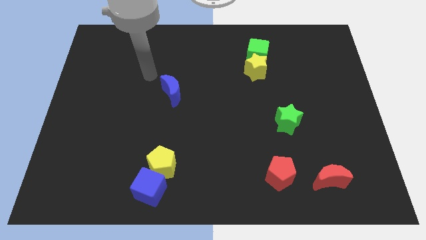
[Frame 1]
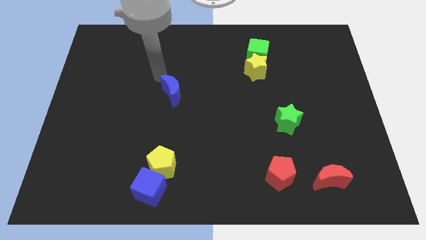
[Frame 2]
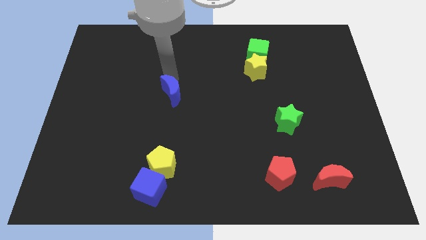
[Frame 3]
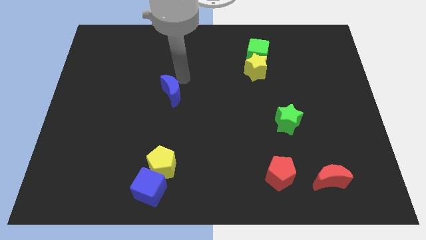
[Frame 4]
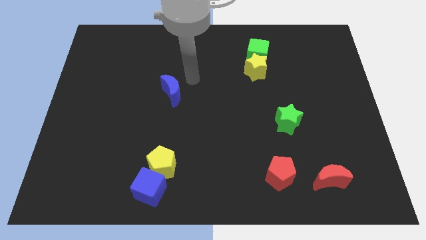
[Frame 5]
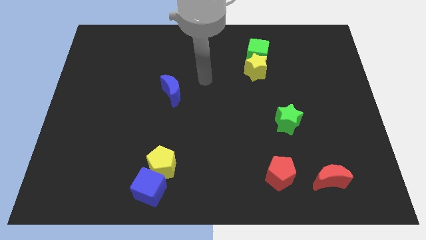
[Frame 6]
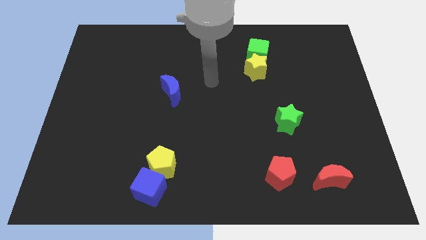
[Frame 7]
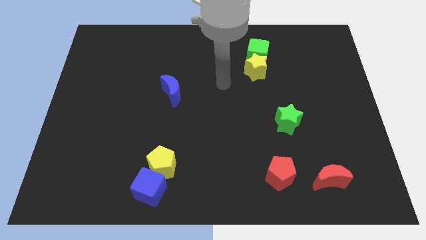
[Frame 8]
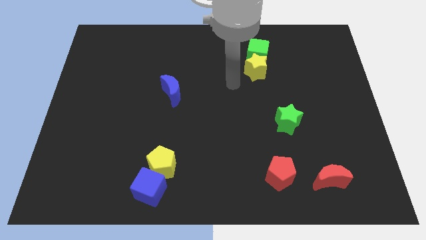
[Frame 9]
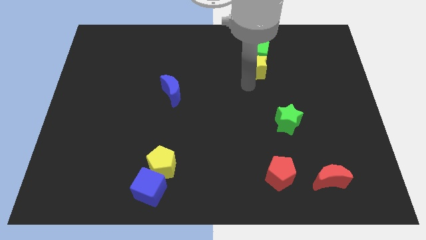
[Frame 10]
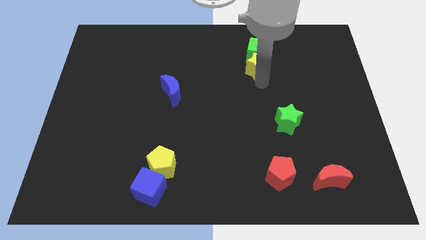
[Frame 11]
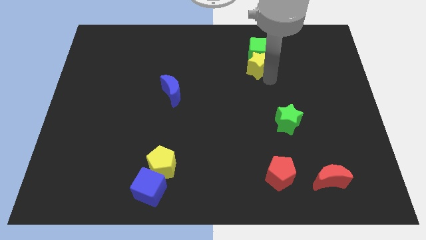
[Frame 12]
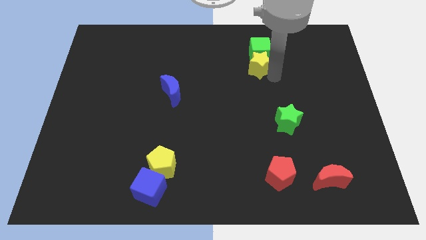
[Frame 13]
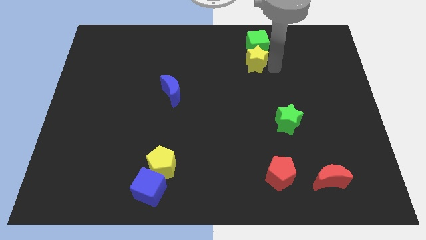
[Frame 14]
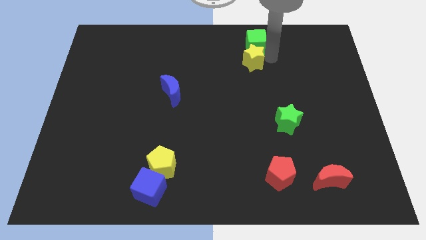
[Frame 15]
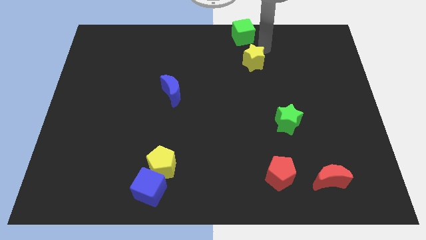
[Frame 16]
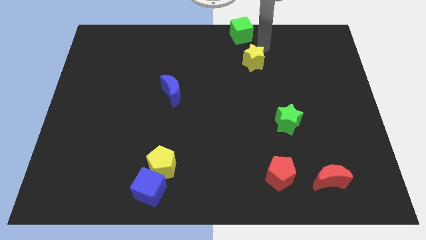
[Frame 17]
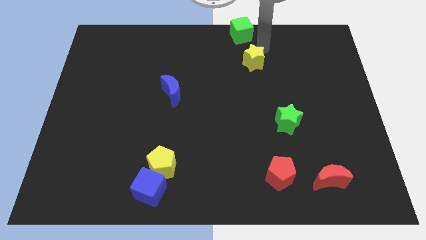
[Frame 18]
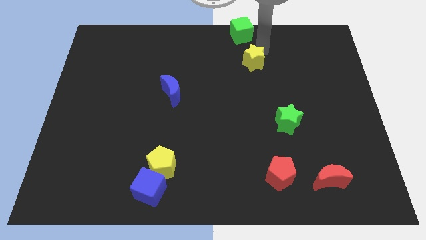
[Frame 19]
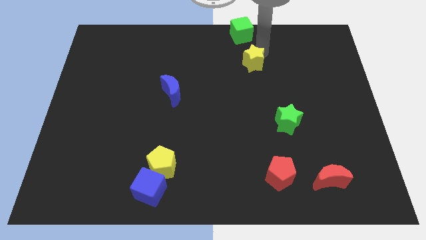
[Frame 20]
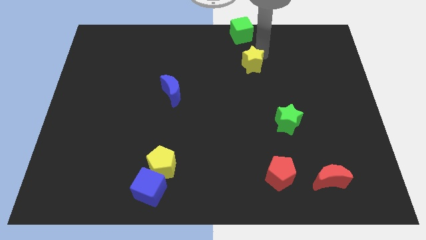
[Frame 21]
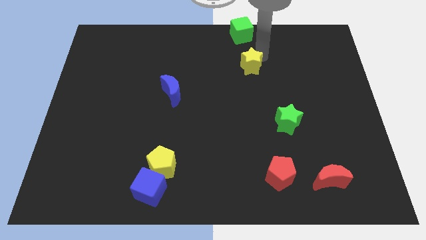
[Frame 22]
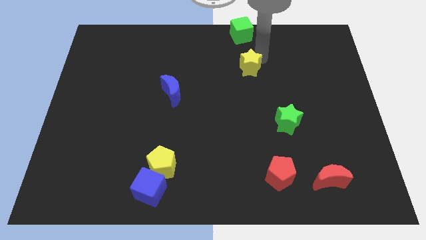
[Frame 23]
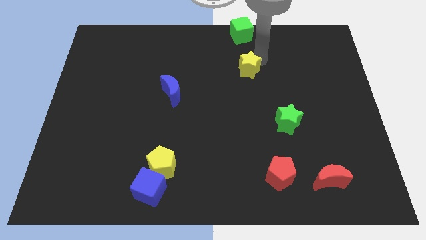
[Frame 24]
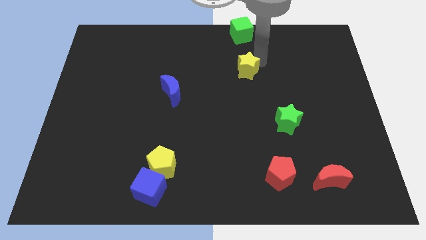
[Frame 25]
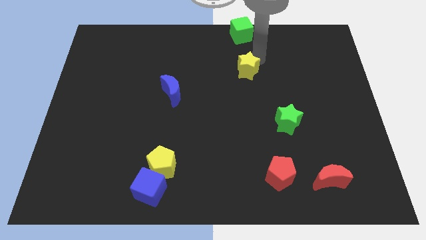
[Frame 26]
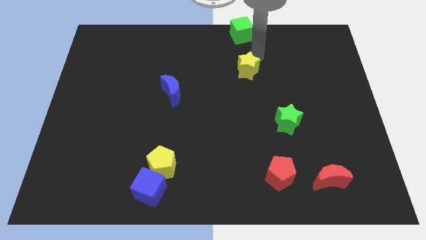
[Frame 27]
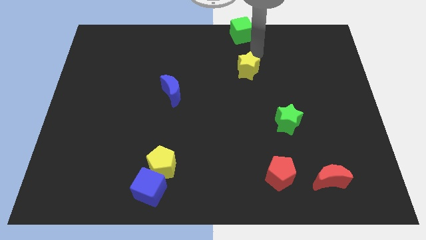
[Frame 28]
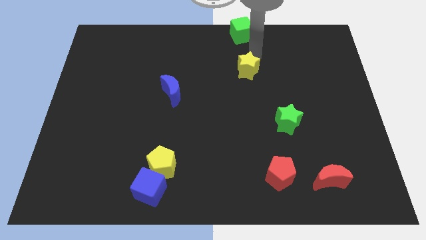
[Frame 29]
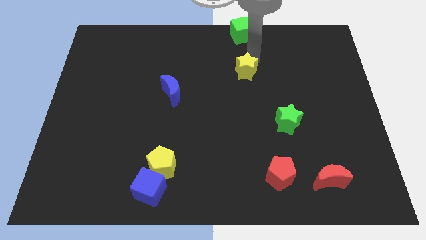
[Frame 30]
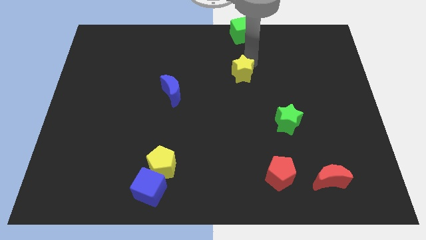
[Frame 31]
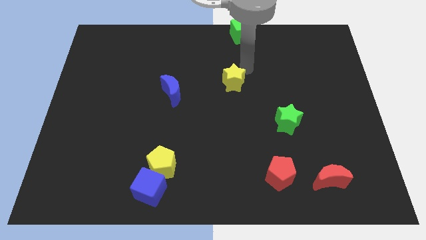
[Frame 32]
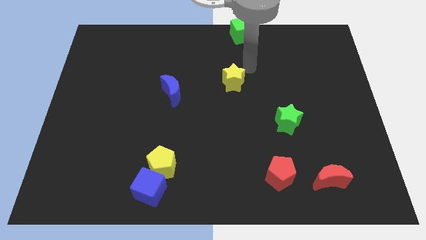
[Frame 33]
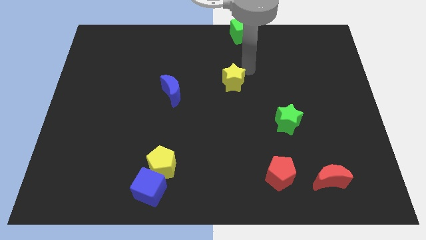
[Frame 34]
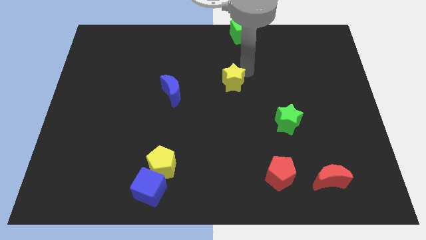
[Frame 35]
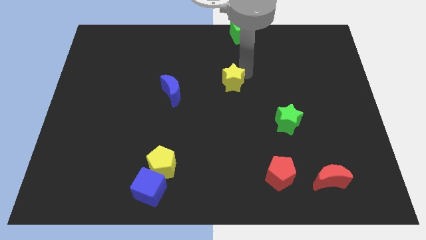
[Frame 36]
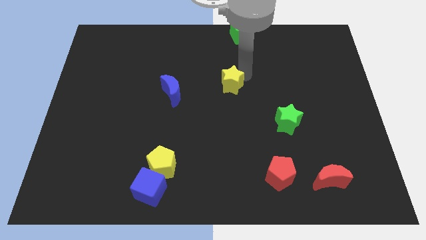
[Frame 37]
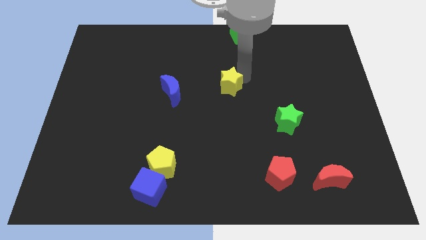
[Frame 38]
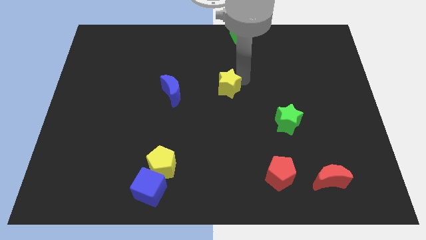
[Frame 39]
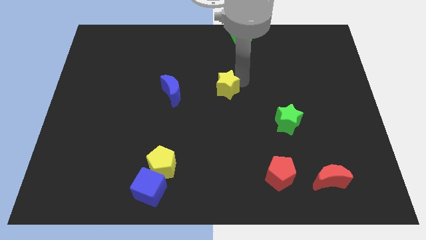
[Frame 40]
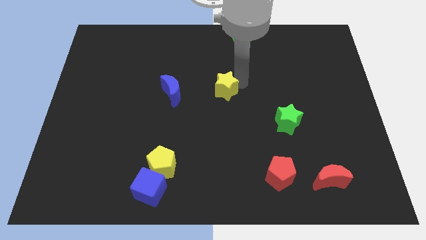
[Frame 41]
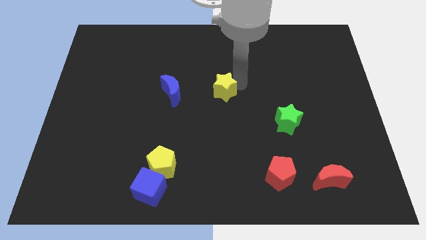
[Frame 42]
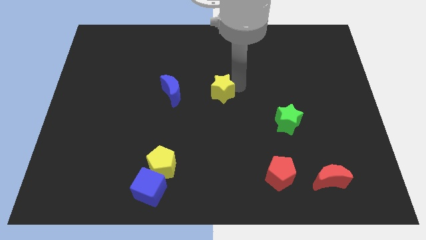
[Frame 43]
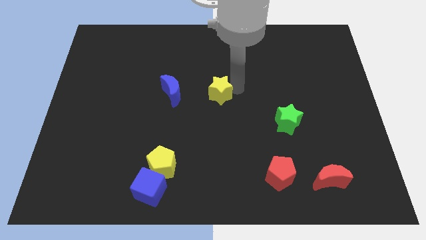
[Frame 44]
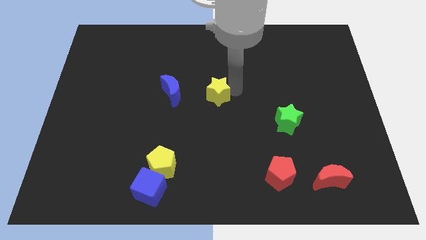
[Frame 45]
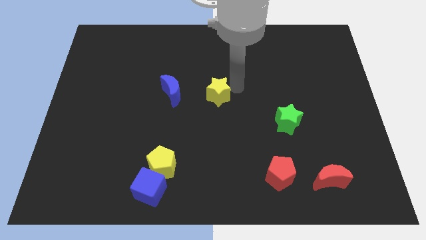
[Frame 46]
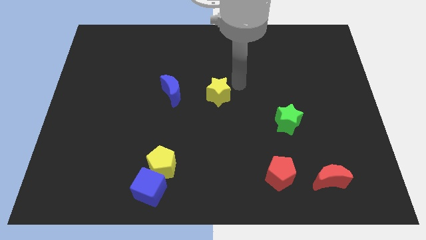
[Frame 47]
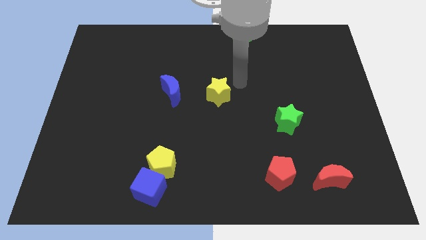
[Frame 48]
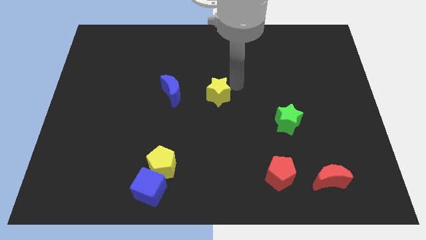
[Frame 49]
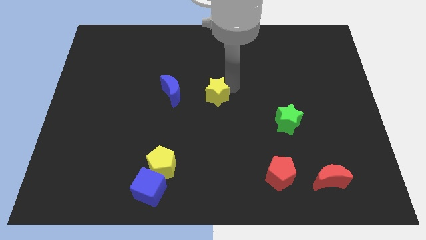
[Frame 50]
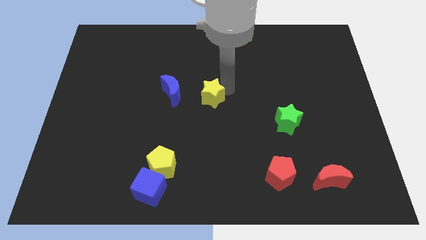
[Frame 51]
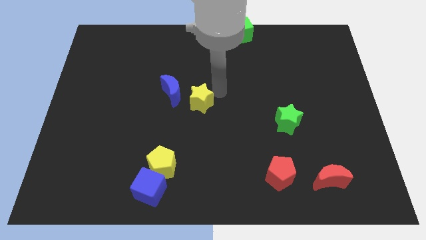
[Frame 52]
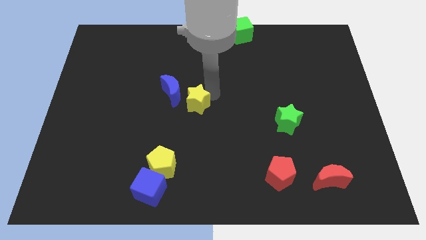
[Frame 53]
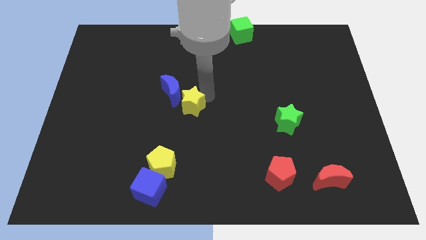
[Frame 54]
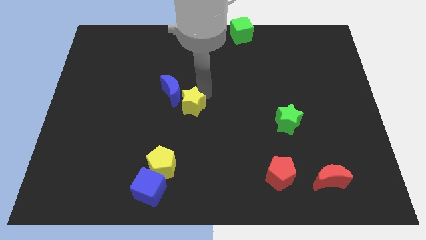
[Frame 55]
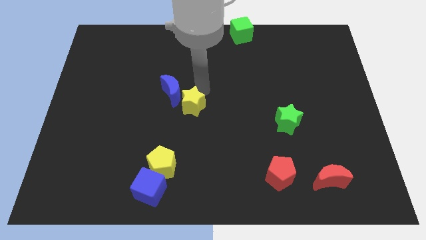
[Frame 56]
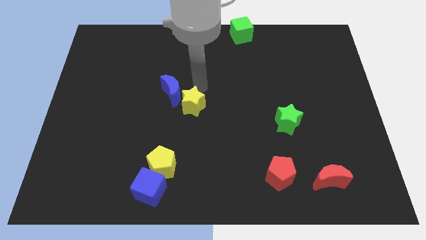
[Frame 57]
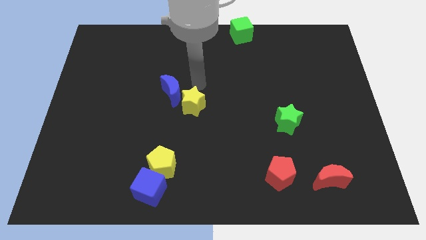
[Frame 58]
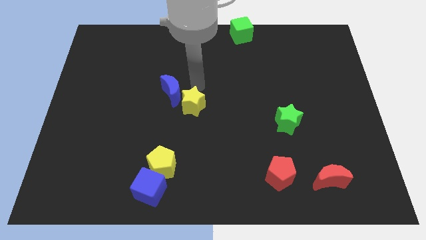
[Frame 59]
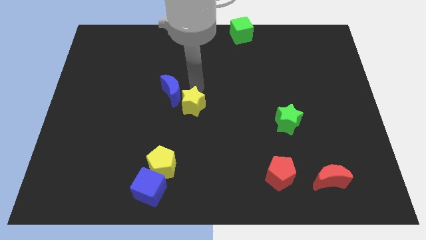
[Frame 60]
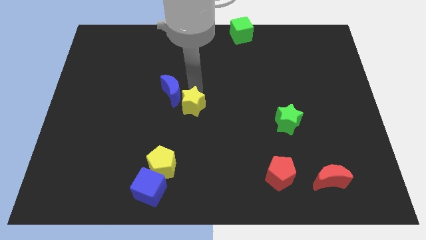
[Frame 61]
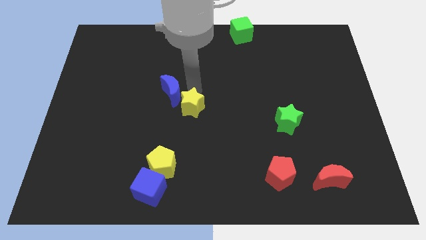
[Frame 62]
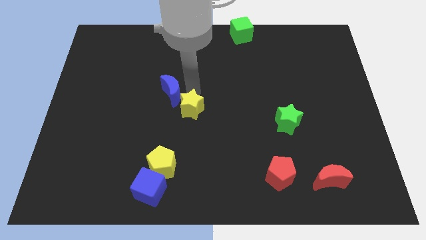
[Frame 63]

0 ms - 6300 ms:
move the yellow star downwards and then left

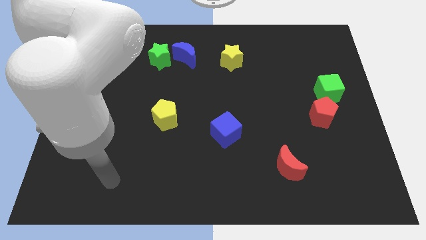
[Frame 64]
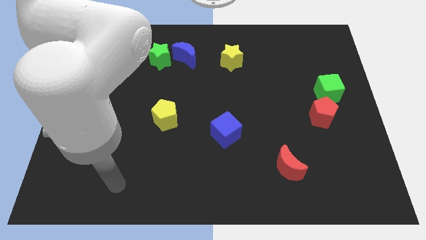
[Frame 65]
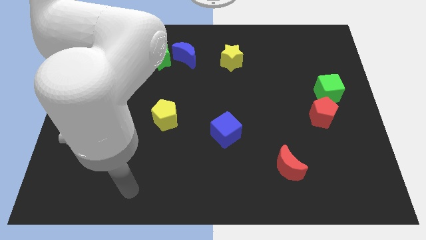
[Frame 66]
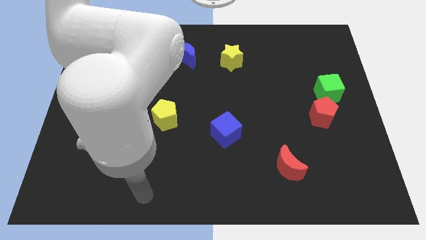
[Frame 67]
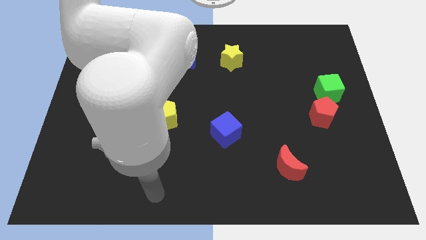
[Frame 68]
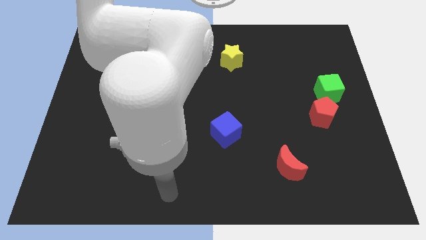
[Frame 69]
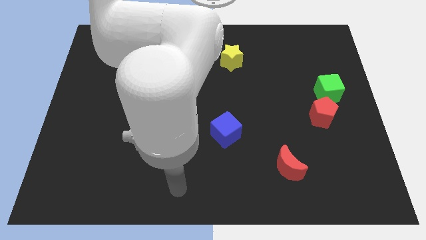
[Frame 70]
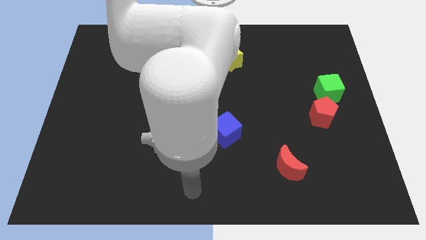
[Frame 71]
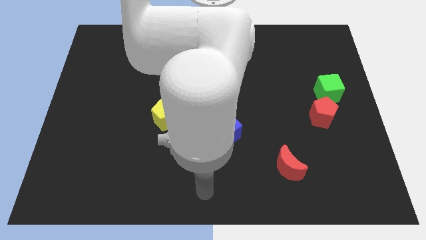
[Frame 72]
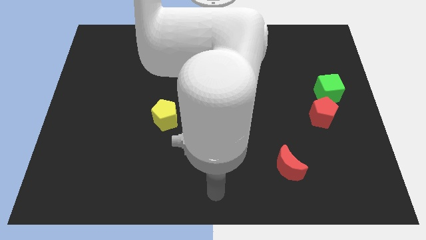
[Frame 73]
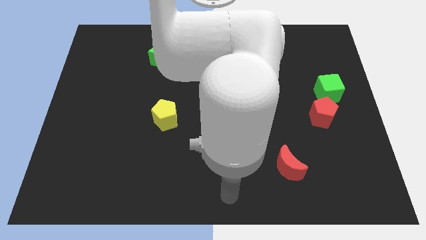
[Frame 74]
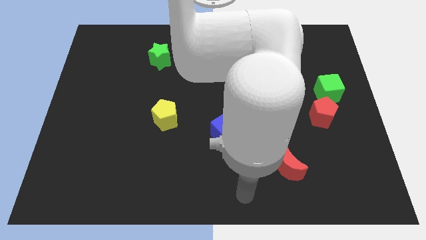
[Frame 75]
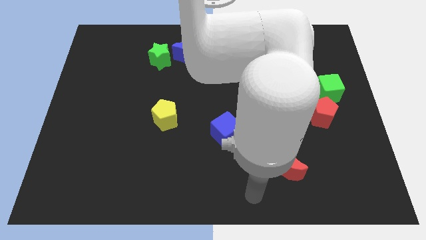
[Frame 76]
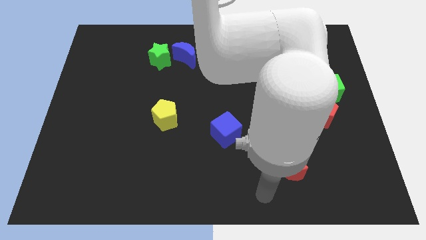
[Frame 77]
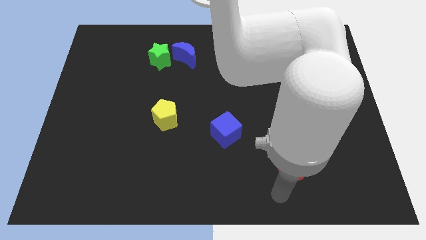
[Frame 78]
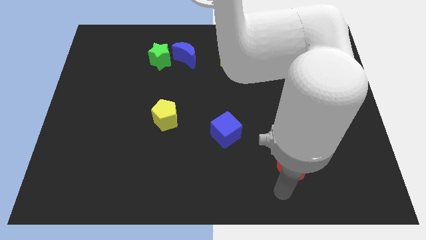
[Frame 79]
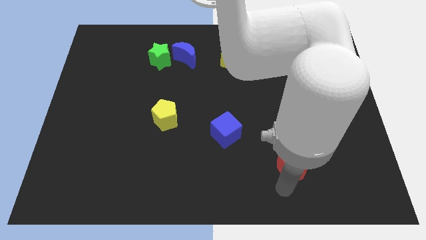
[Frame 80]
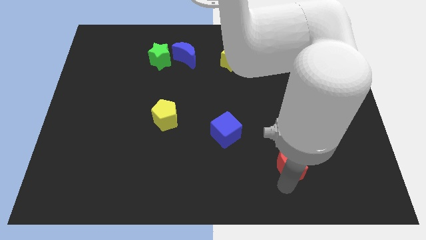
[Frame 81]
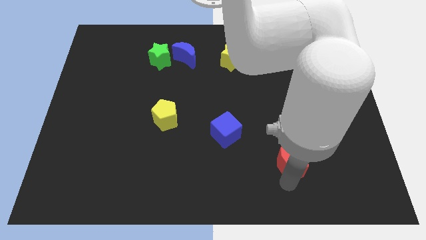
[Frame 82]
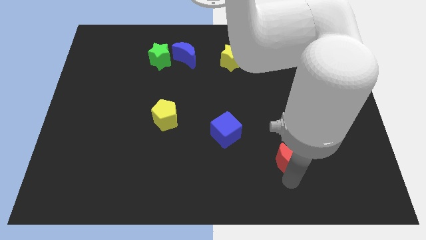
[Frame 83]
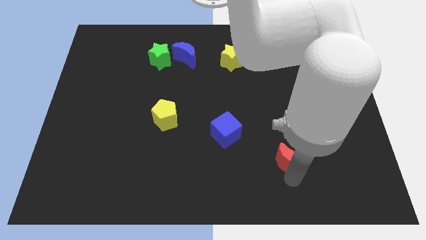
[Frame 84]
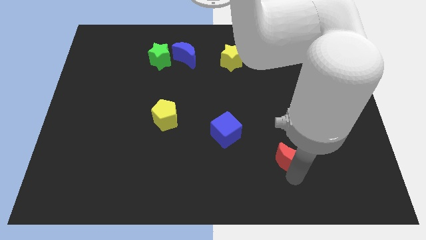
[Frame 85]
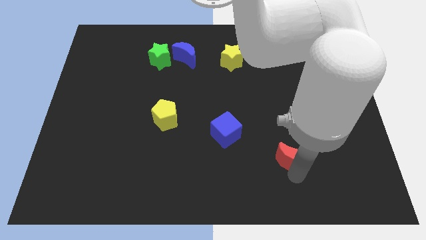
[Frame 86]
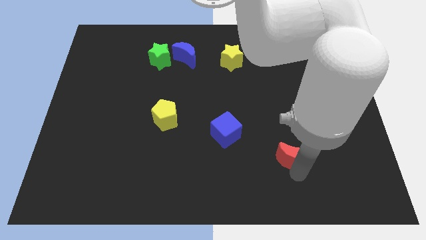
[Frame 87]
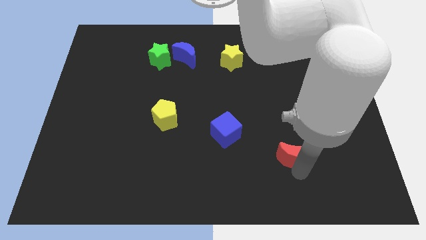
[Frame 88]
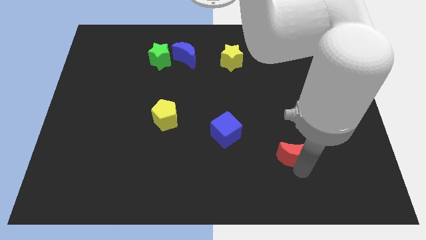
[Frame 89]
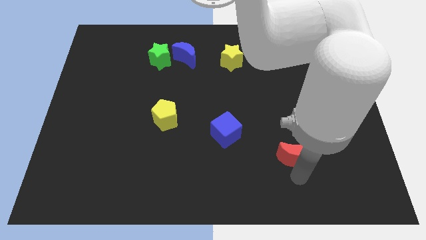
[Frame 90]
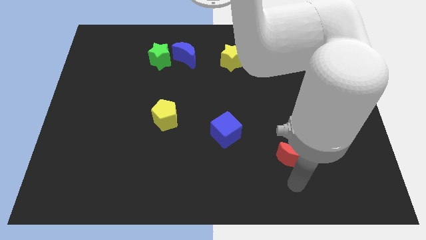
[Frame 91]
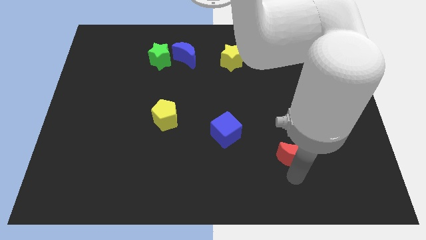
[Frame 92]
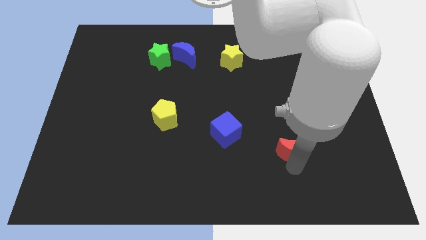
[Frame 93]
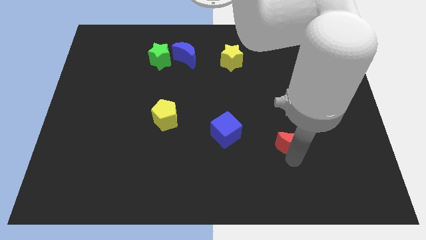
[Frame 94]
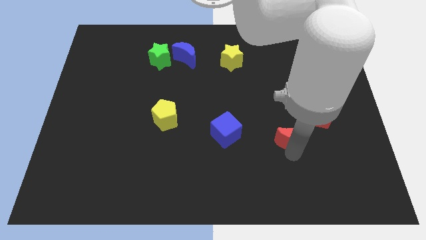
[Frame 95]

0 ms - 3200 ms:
move the red moon up slightly
